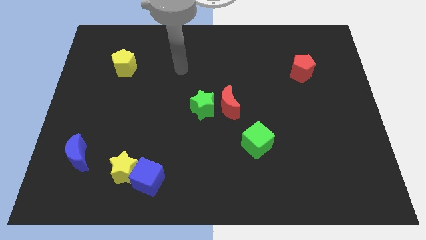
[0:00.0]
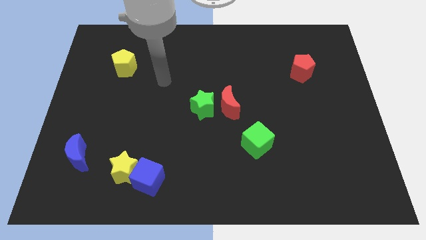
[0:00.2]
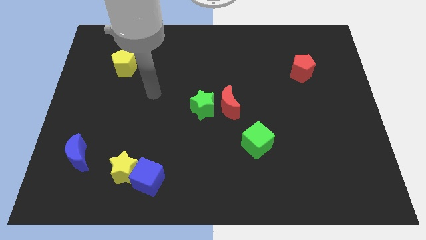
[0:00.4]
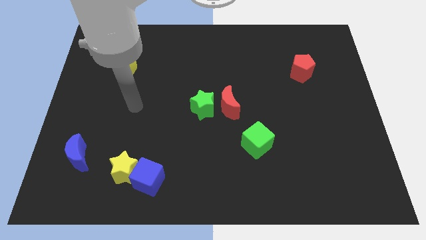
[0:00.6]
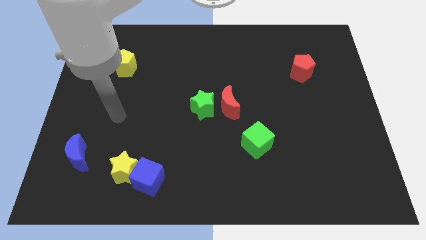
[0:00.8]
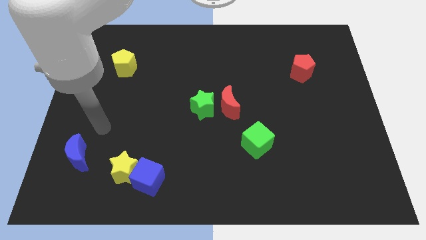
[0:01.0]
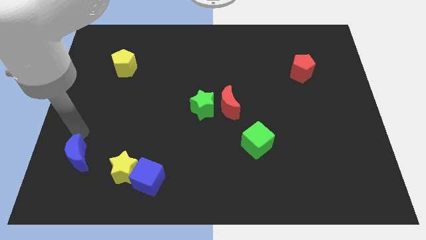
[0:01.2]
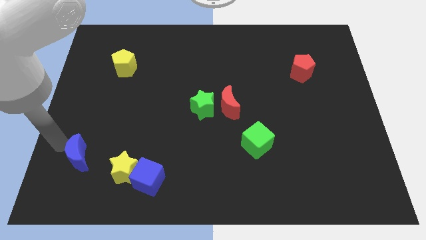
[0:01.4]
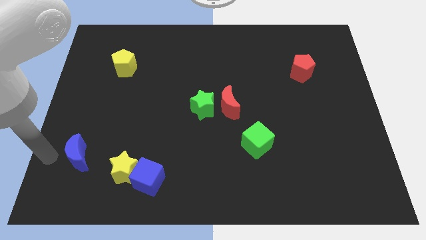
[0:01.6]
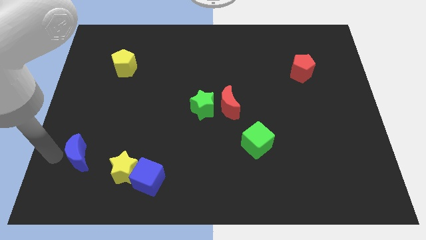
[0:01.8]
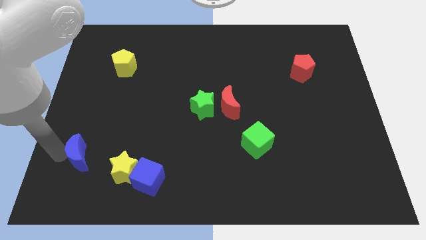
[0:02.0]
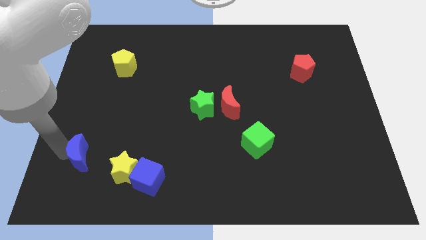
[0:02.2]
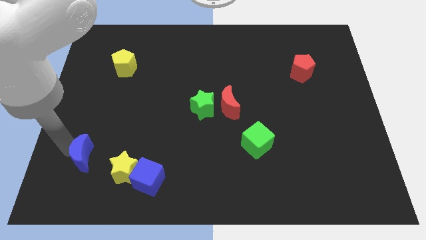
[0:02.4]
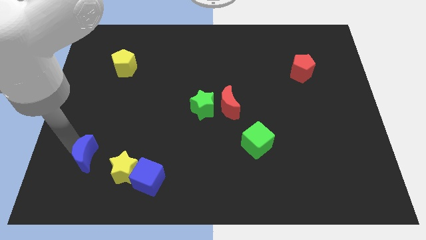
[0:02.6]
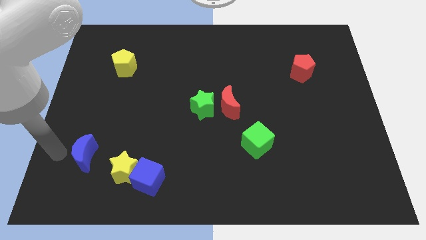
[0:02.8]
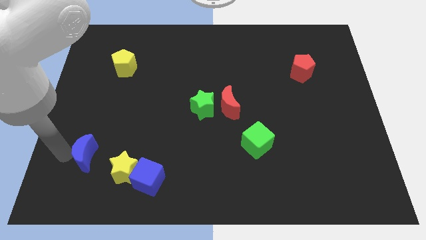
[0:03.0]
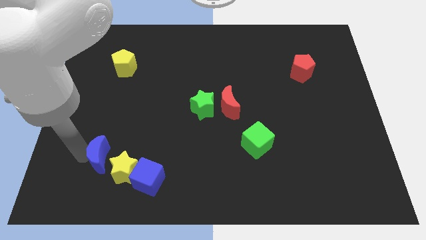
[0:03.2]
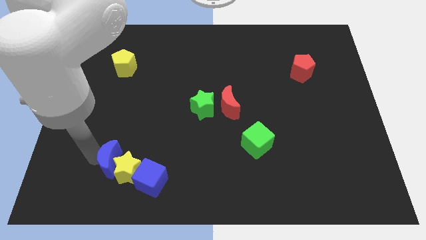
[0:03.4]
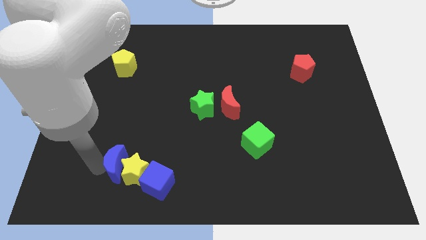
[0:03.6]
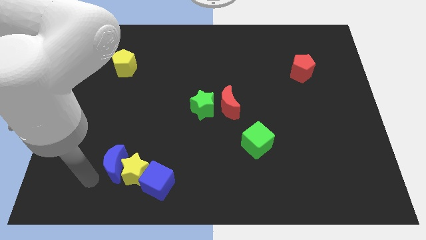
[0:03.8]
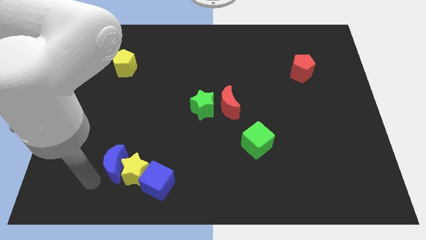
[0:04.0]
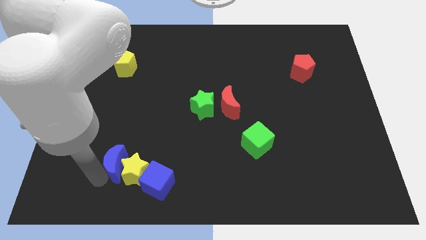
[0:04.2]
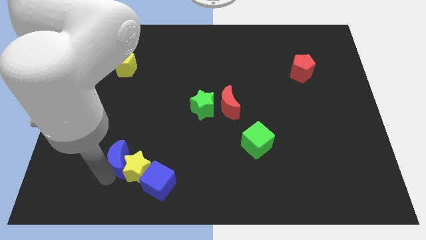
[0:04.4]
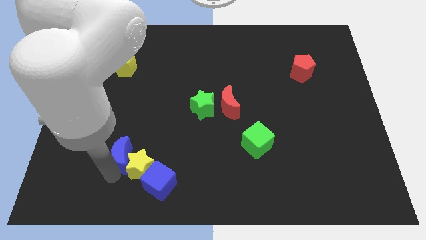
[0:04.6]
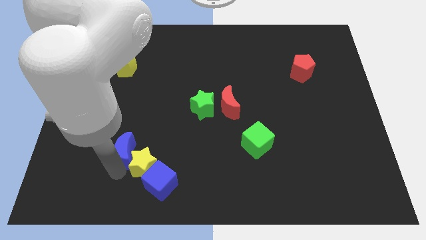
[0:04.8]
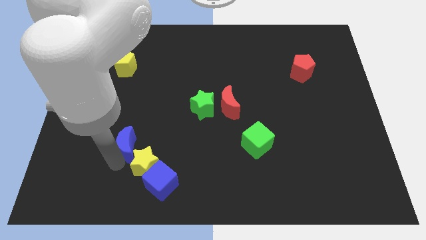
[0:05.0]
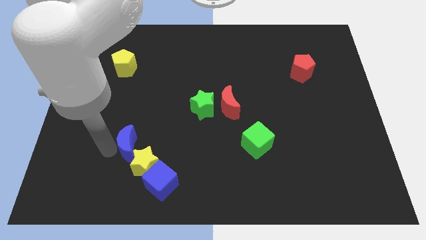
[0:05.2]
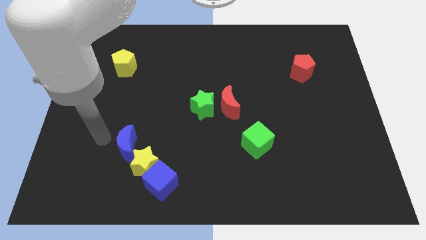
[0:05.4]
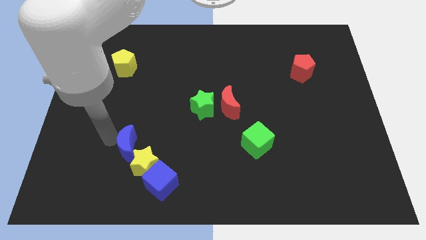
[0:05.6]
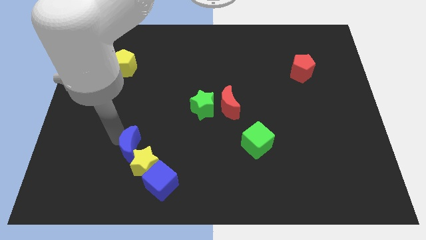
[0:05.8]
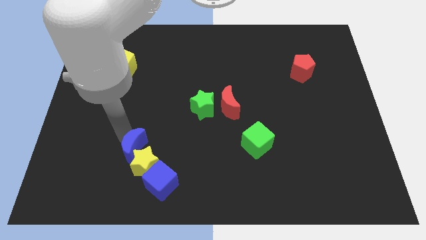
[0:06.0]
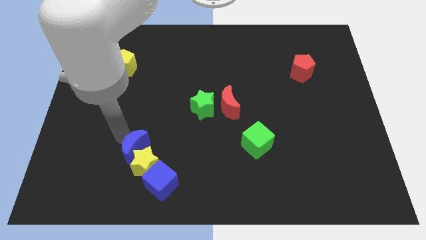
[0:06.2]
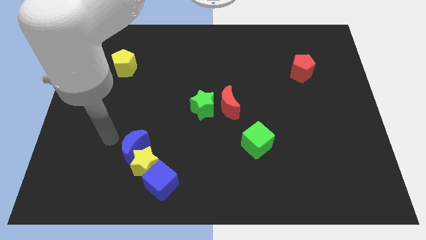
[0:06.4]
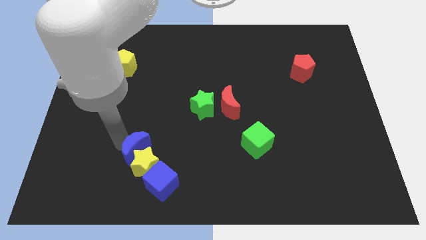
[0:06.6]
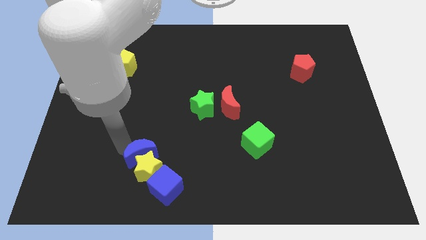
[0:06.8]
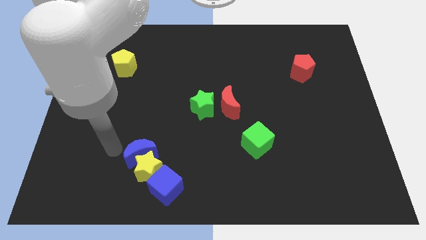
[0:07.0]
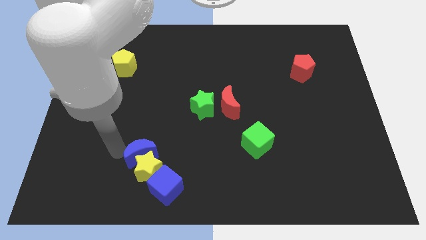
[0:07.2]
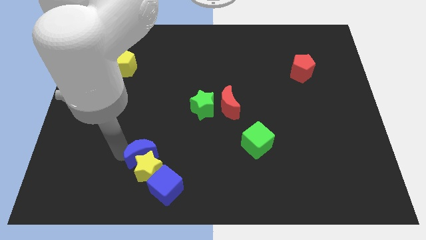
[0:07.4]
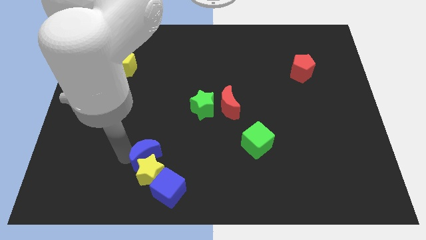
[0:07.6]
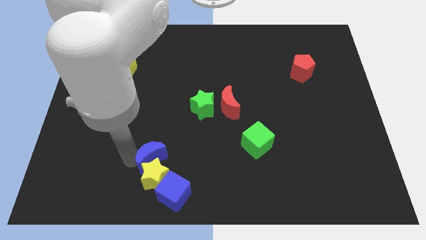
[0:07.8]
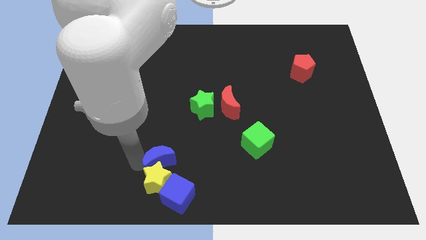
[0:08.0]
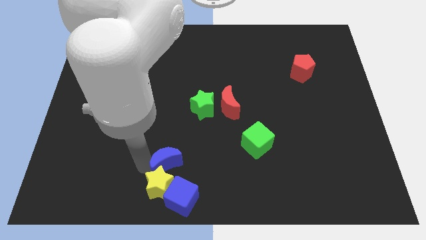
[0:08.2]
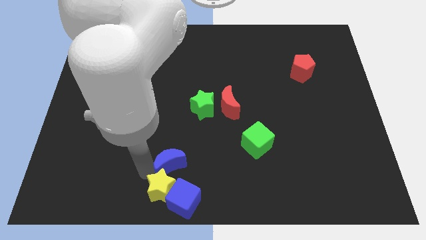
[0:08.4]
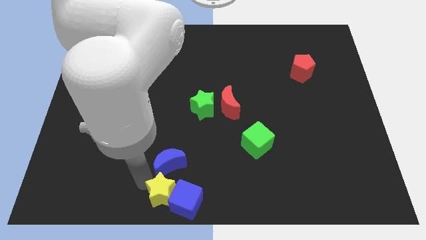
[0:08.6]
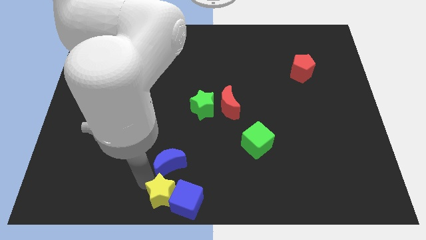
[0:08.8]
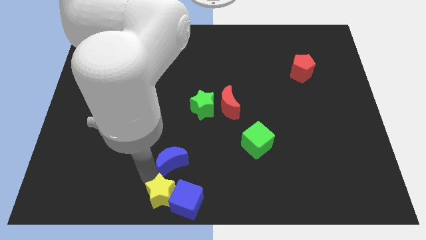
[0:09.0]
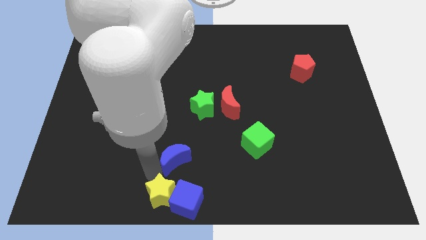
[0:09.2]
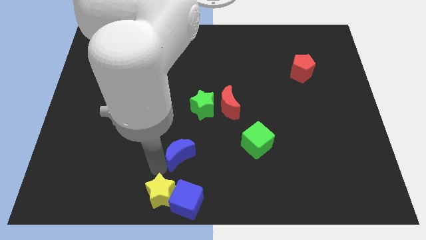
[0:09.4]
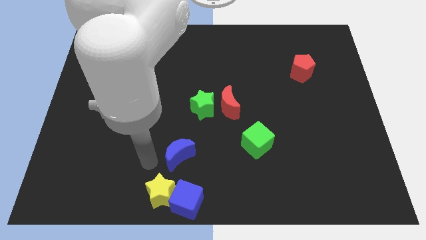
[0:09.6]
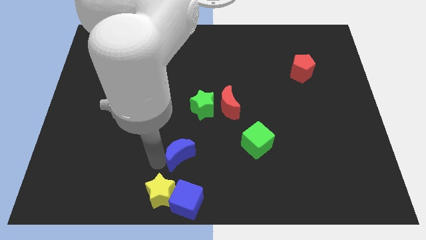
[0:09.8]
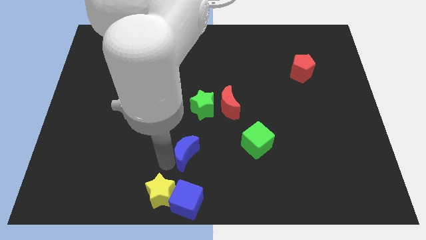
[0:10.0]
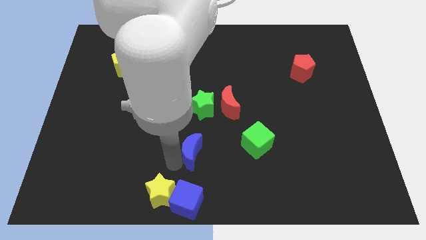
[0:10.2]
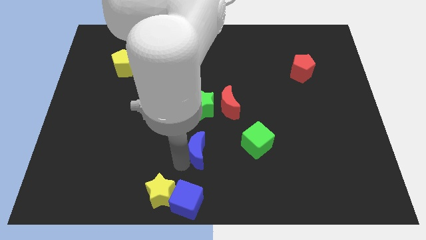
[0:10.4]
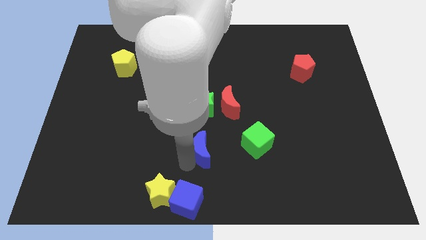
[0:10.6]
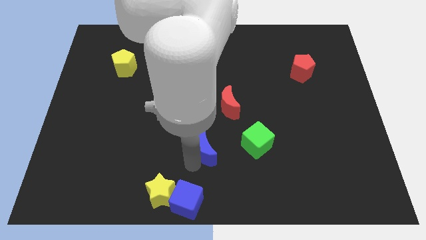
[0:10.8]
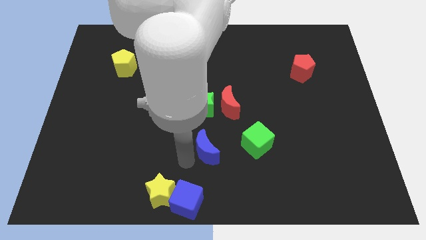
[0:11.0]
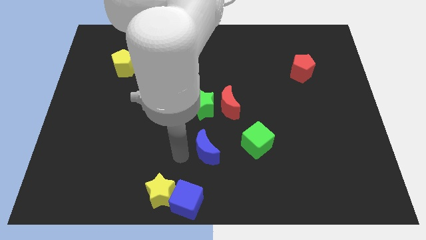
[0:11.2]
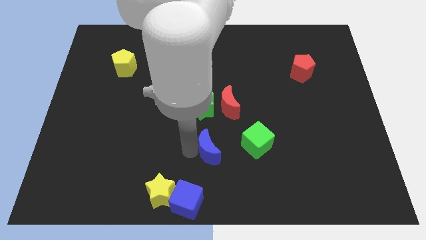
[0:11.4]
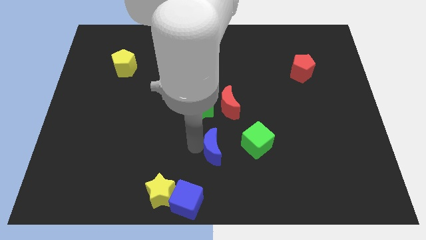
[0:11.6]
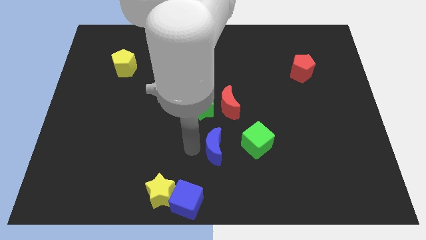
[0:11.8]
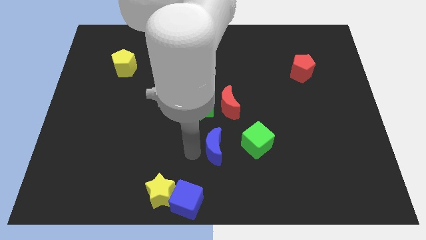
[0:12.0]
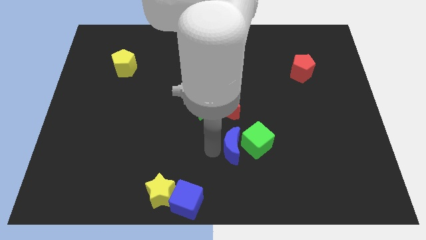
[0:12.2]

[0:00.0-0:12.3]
put the blue moon to the green cube
